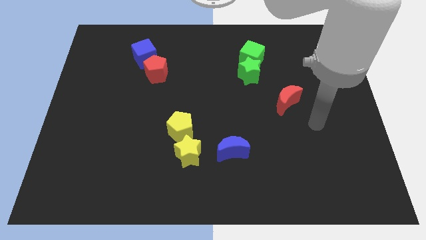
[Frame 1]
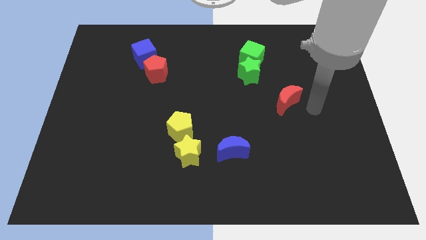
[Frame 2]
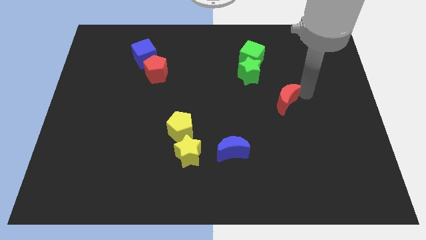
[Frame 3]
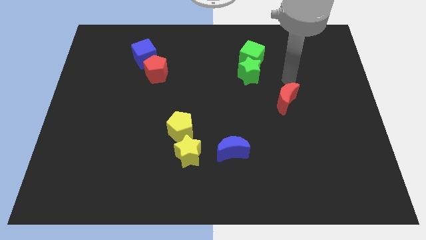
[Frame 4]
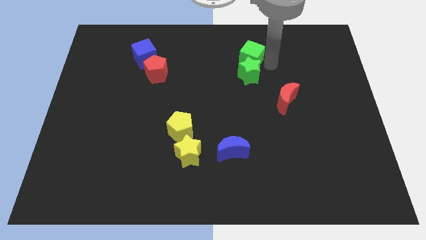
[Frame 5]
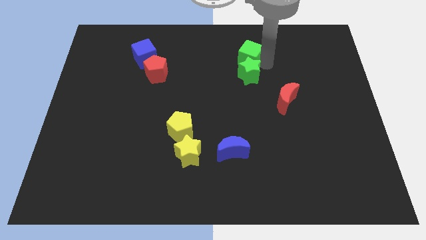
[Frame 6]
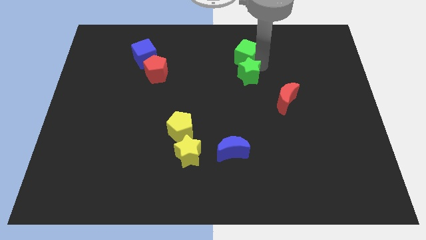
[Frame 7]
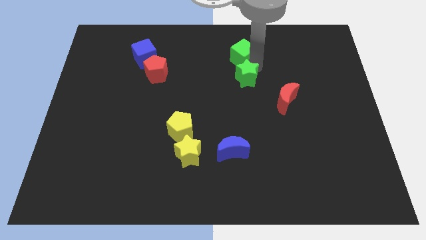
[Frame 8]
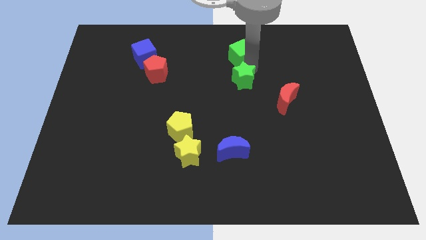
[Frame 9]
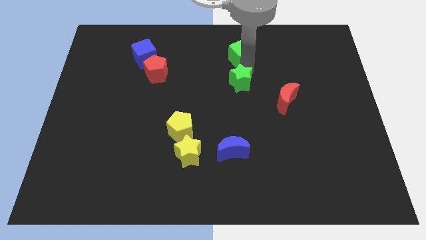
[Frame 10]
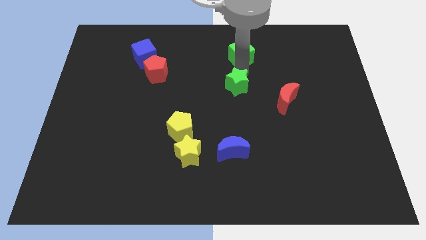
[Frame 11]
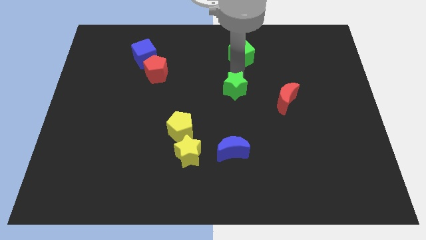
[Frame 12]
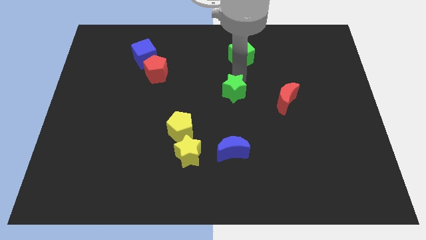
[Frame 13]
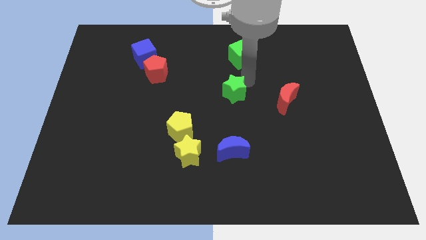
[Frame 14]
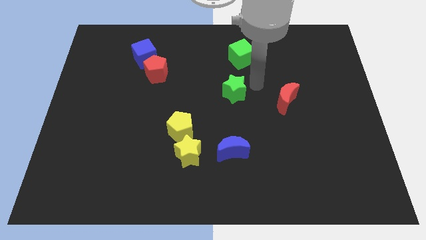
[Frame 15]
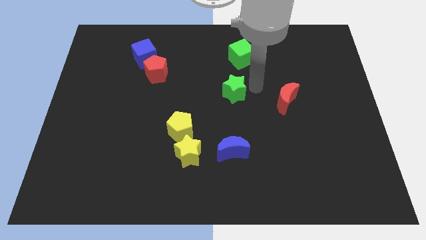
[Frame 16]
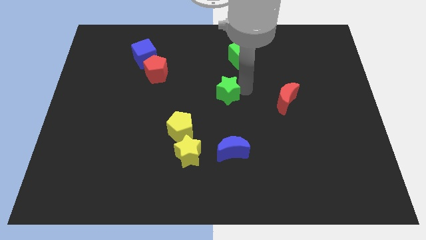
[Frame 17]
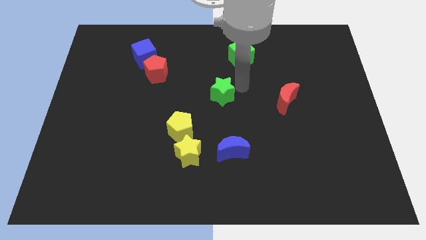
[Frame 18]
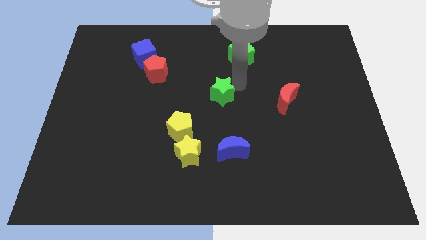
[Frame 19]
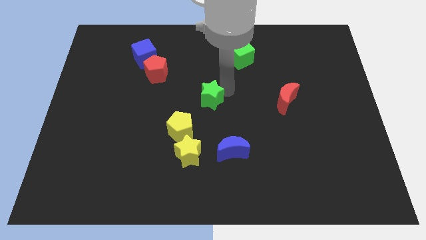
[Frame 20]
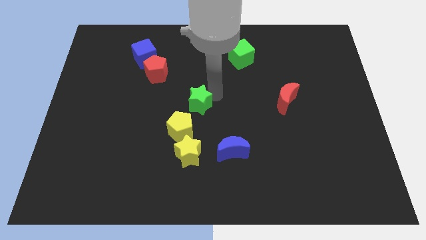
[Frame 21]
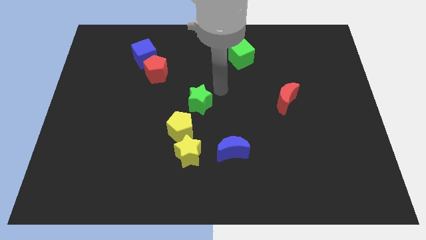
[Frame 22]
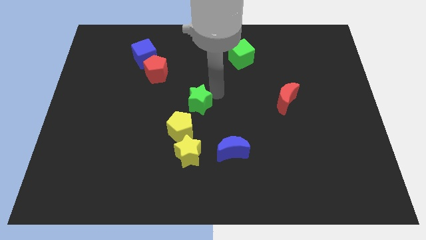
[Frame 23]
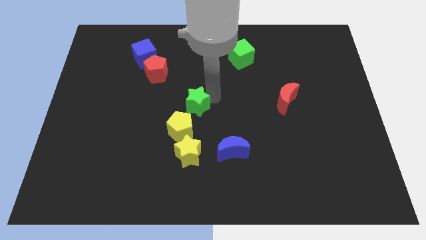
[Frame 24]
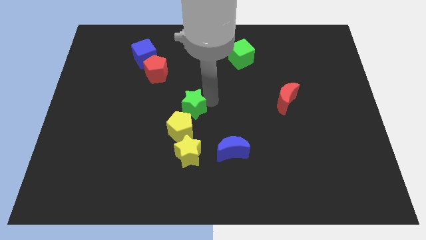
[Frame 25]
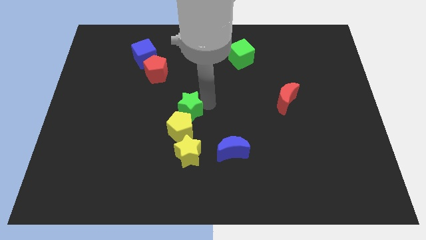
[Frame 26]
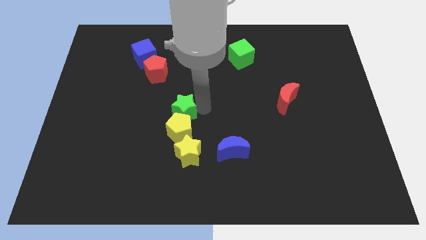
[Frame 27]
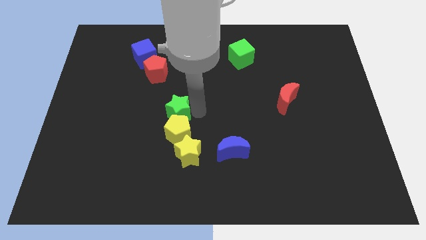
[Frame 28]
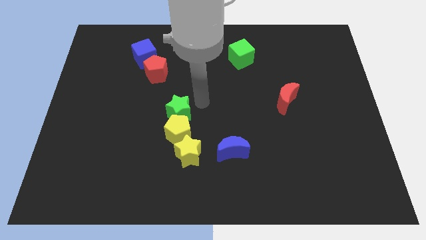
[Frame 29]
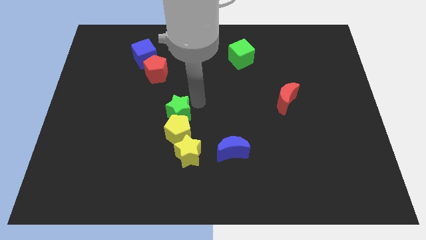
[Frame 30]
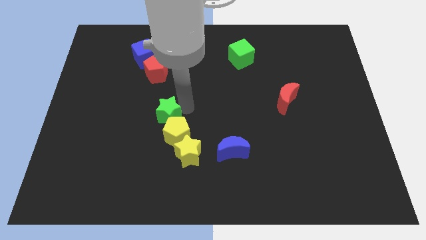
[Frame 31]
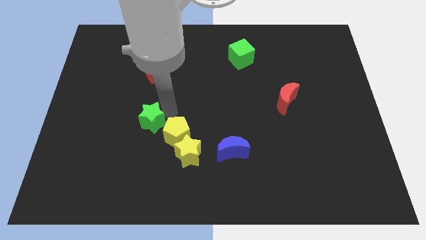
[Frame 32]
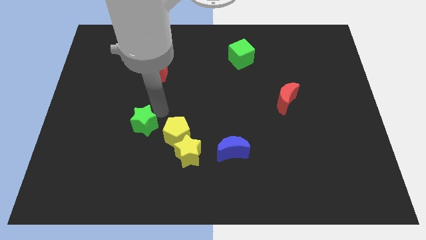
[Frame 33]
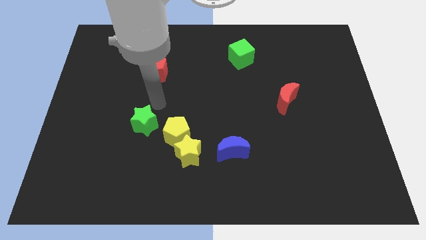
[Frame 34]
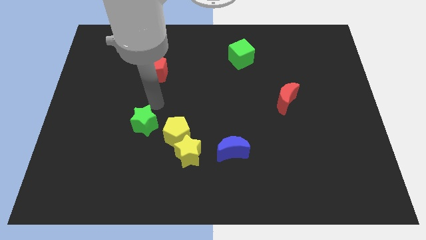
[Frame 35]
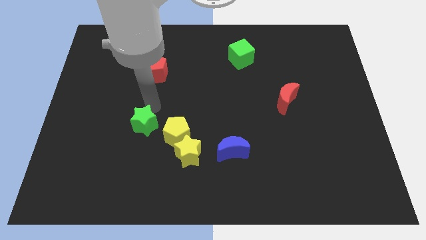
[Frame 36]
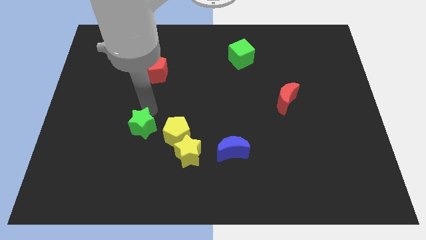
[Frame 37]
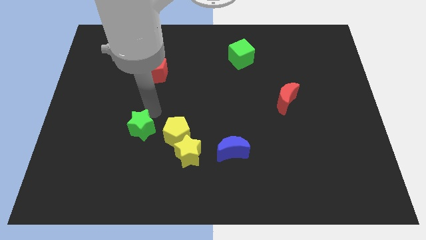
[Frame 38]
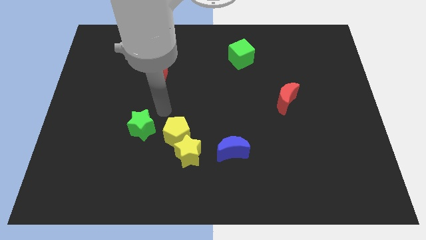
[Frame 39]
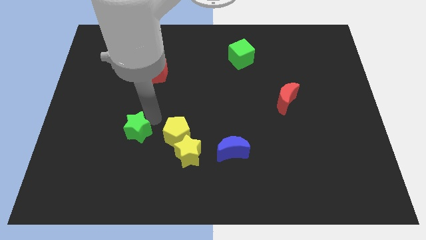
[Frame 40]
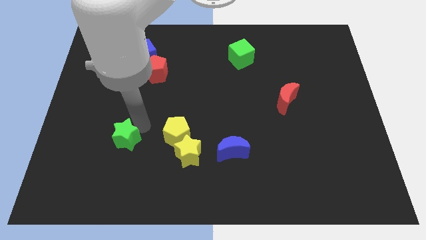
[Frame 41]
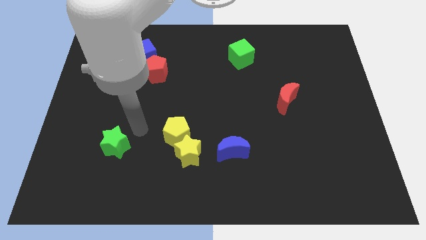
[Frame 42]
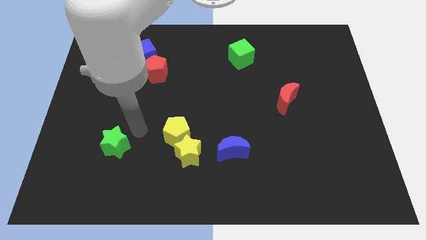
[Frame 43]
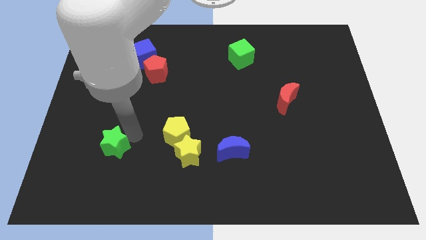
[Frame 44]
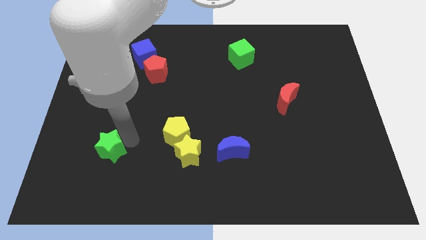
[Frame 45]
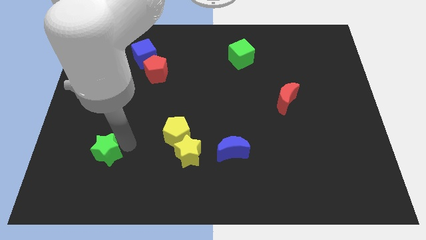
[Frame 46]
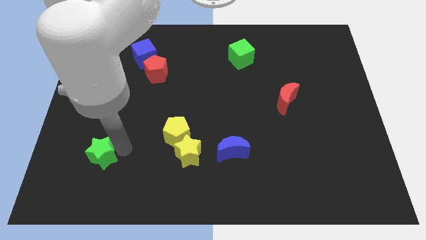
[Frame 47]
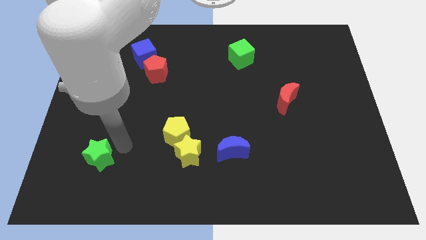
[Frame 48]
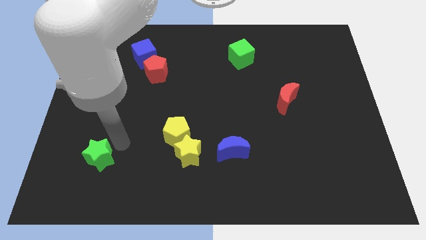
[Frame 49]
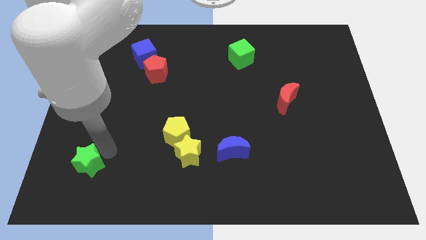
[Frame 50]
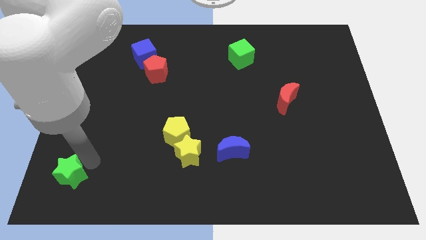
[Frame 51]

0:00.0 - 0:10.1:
push the green star to the bottom left corner

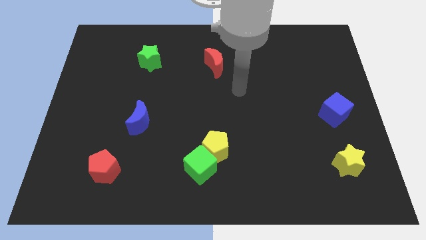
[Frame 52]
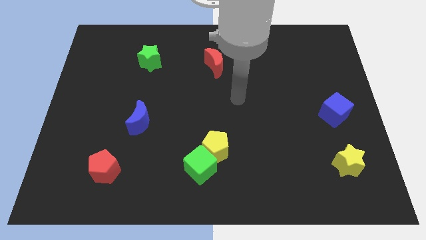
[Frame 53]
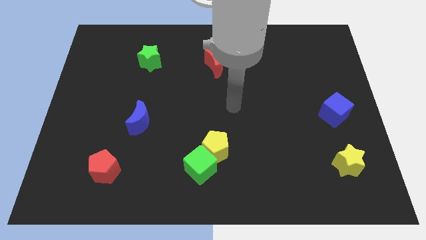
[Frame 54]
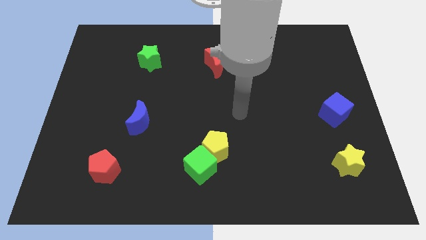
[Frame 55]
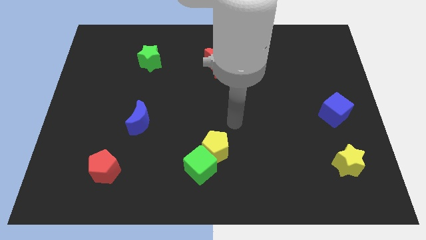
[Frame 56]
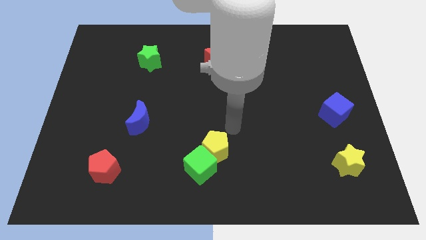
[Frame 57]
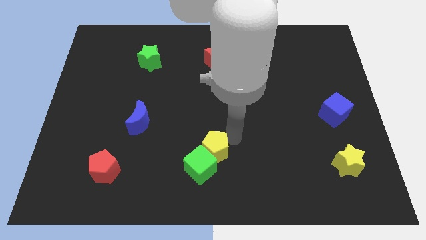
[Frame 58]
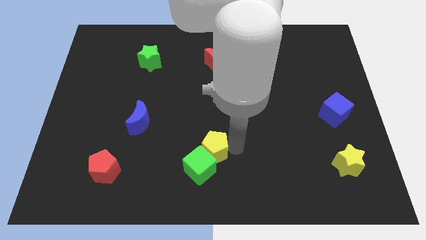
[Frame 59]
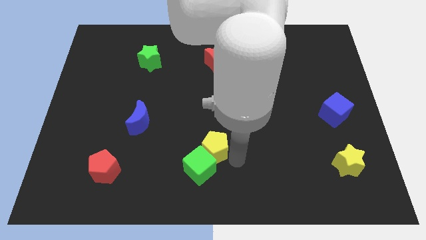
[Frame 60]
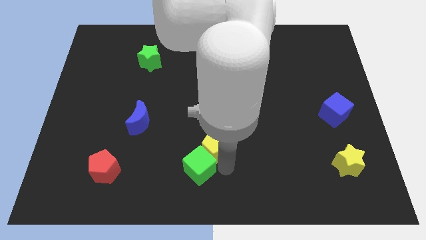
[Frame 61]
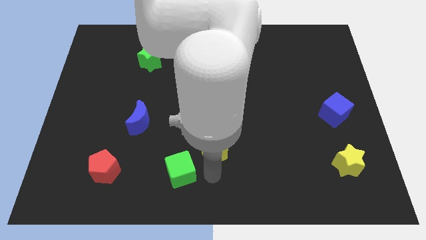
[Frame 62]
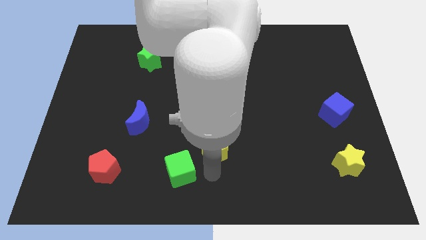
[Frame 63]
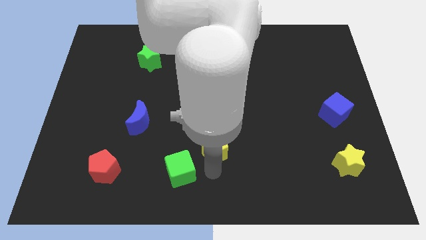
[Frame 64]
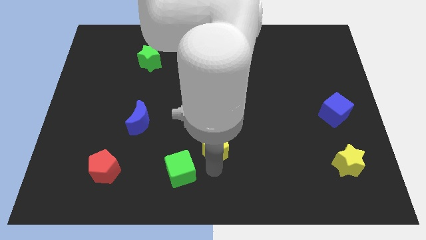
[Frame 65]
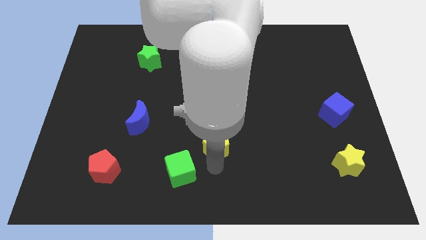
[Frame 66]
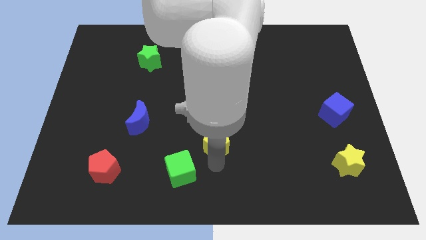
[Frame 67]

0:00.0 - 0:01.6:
slide the yellow pentagon to the center
